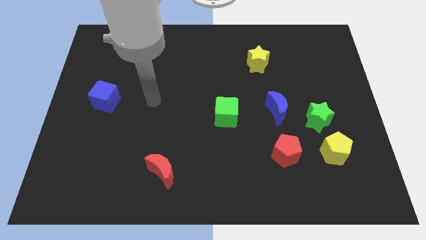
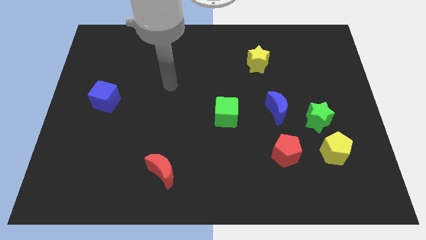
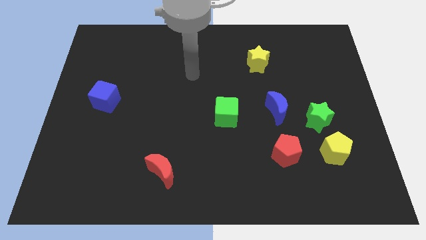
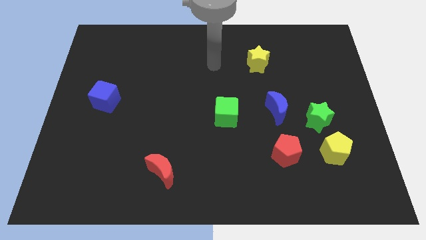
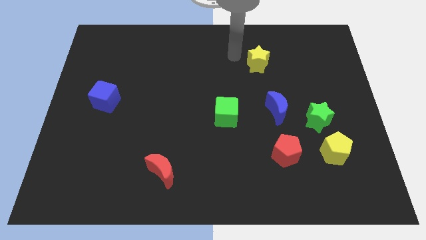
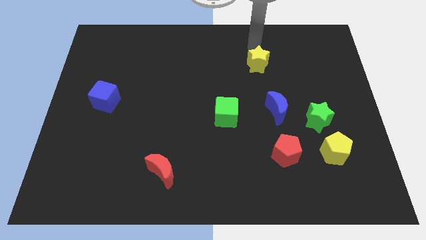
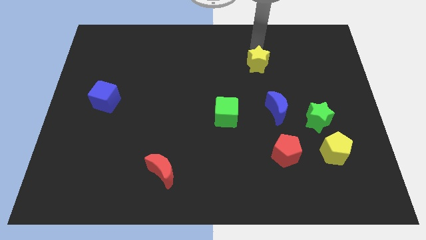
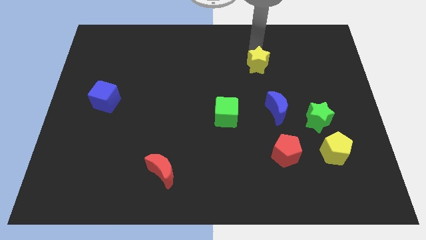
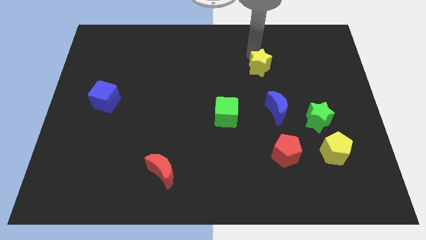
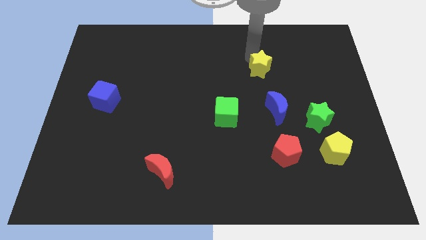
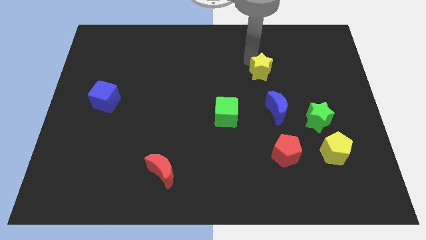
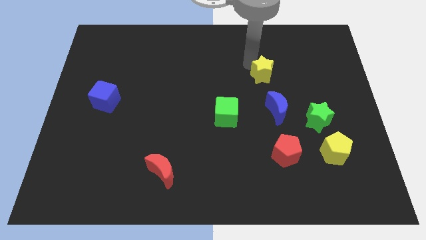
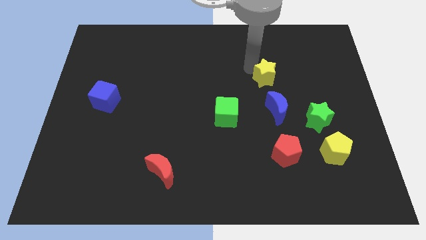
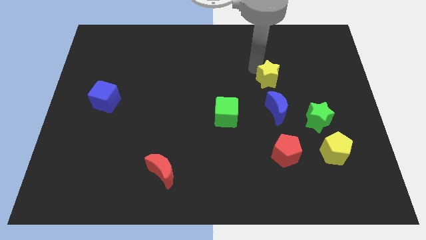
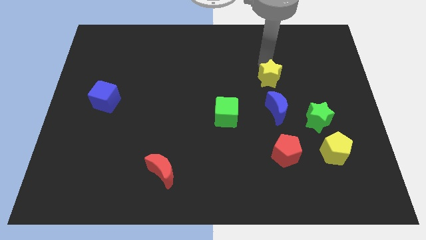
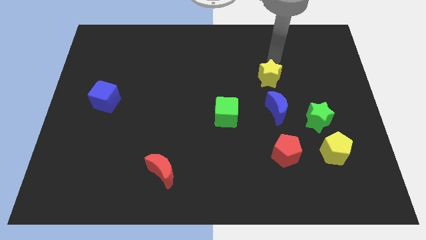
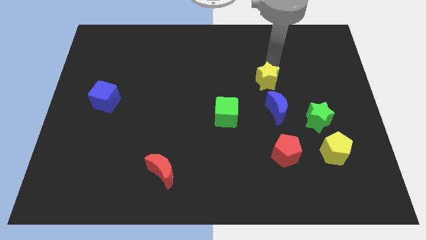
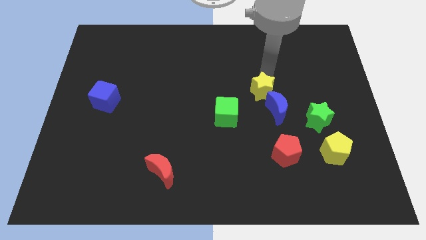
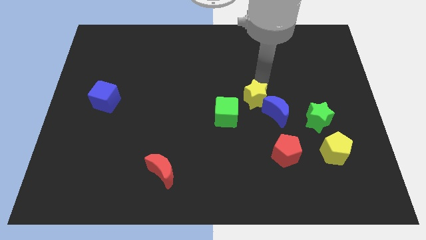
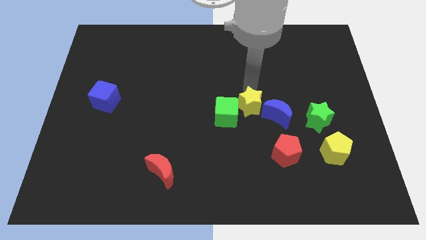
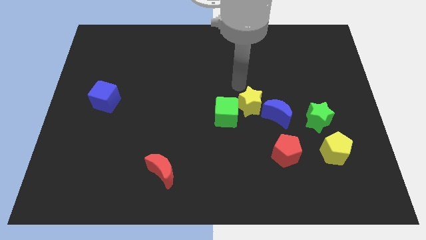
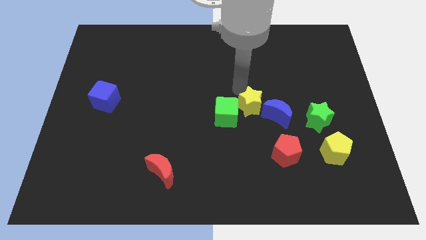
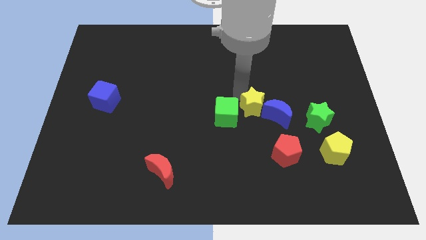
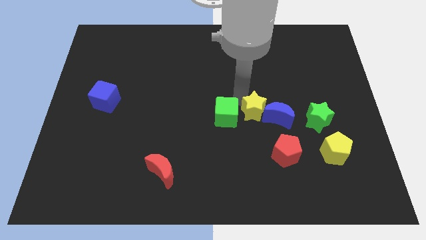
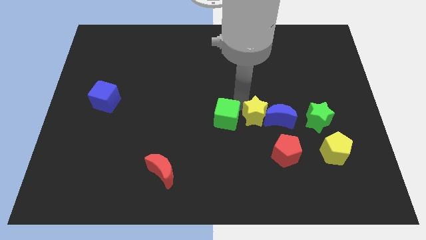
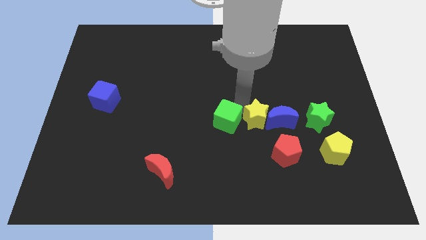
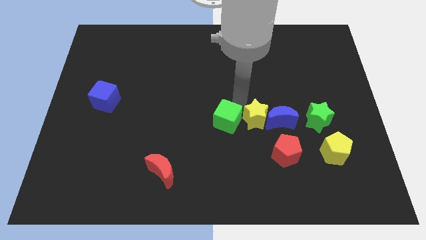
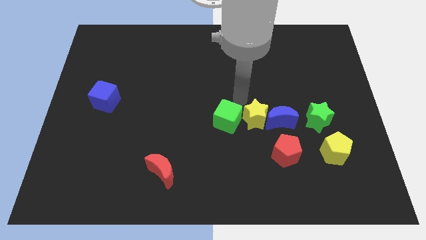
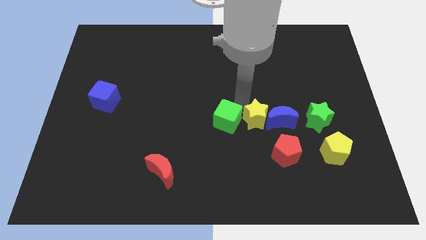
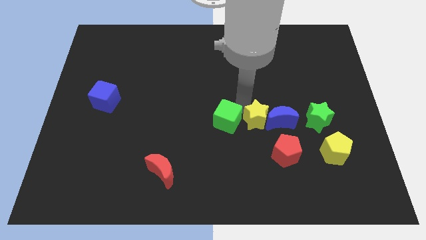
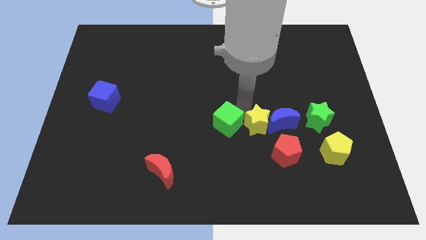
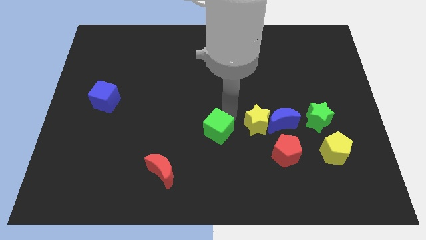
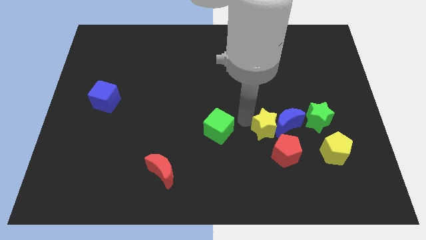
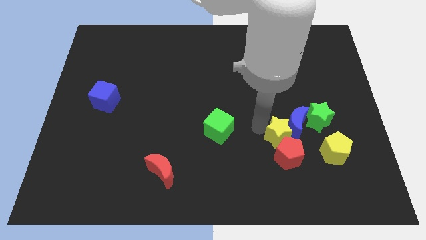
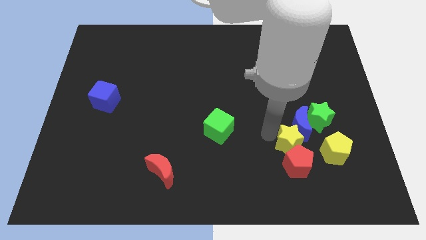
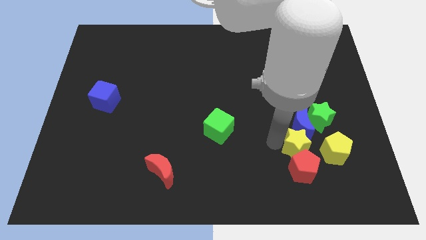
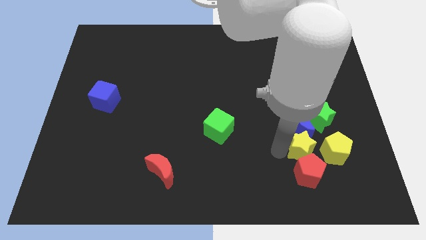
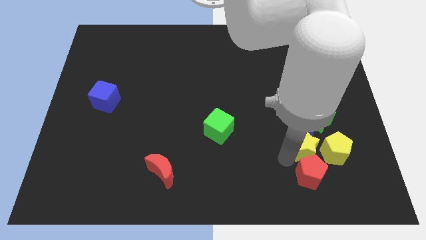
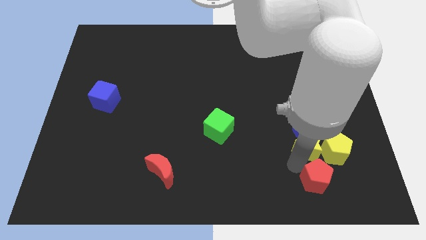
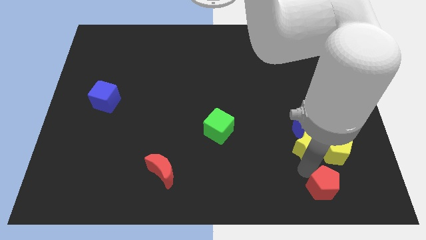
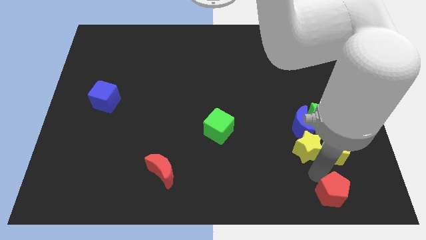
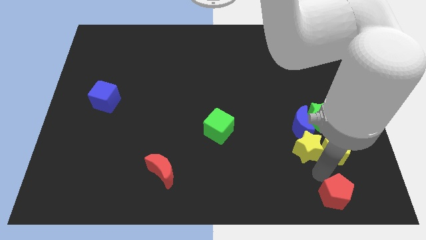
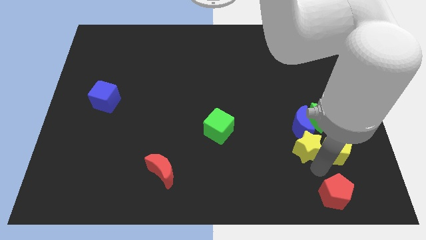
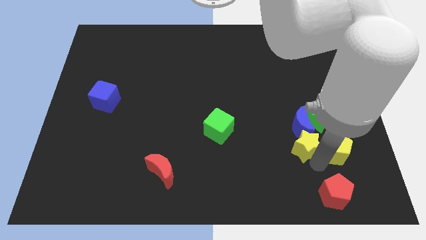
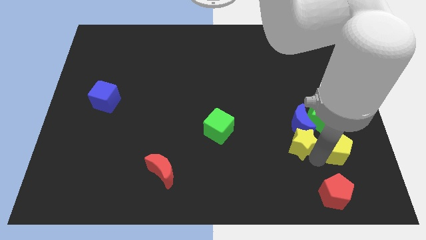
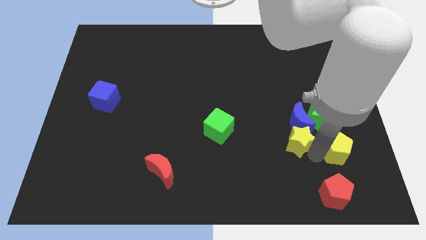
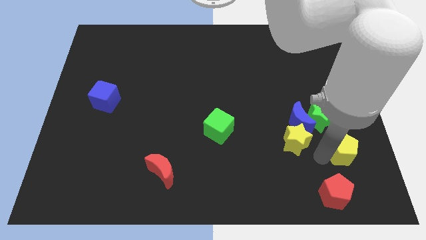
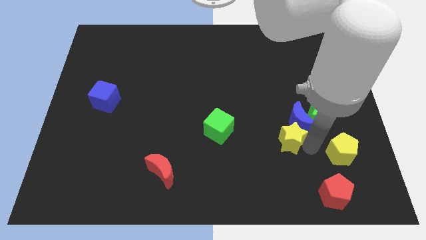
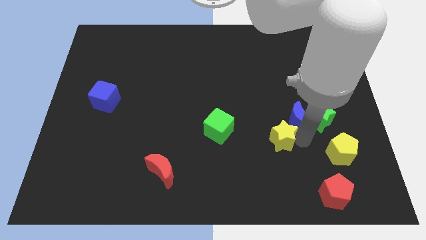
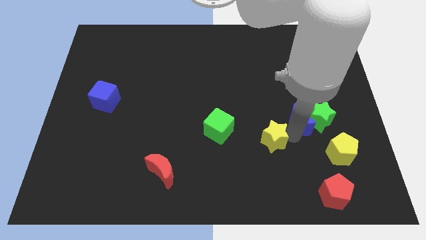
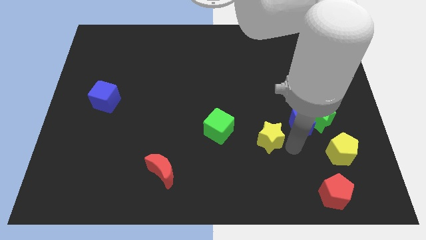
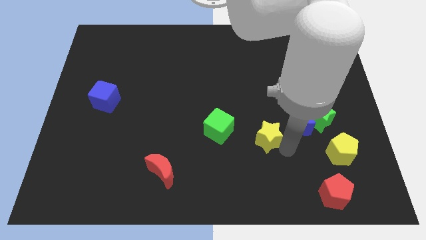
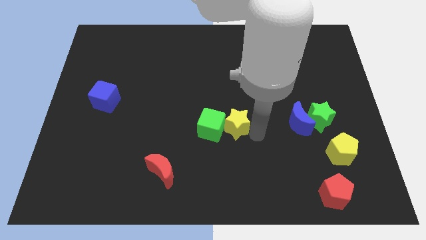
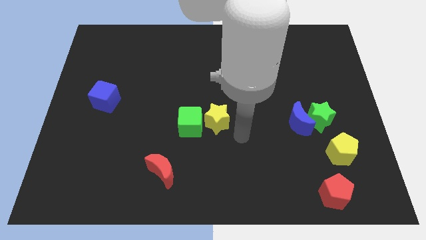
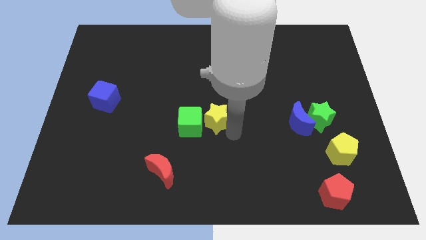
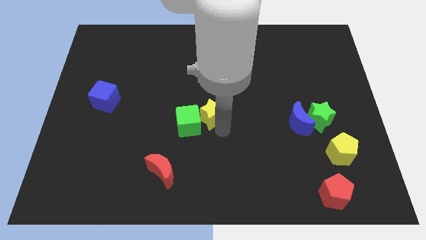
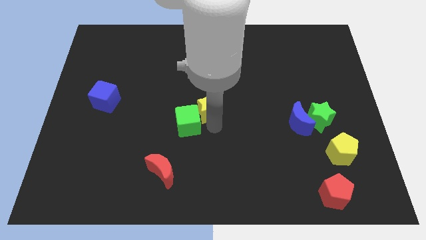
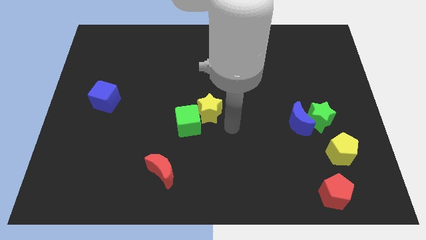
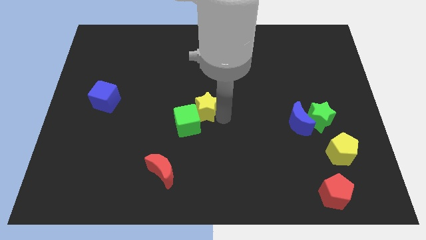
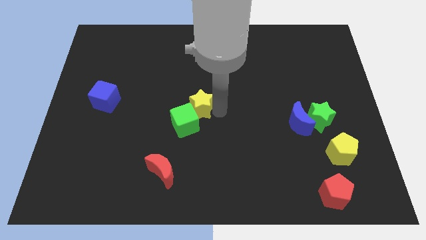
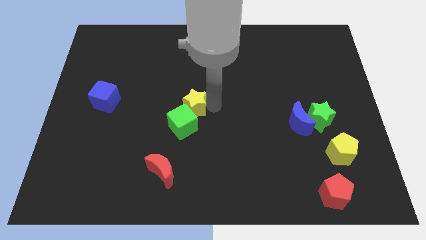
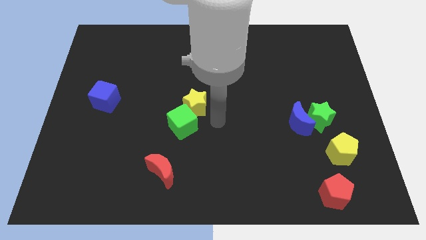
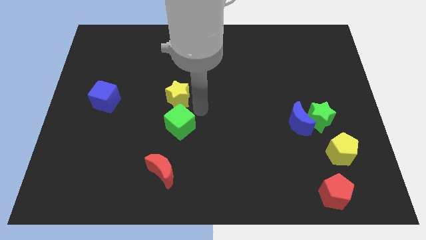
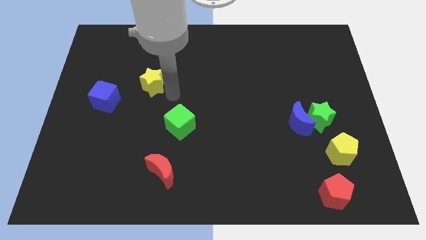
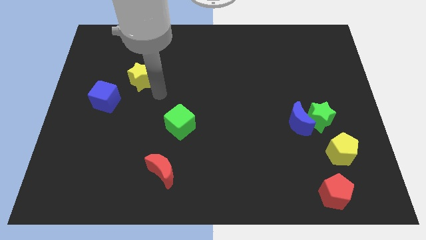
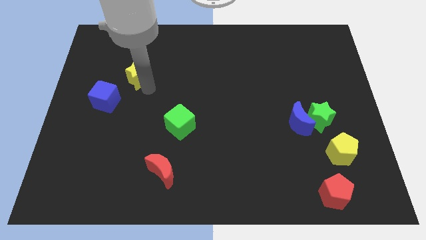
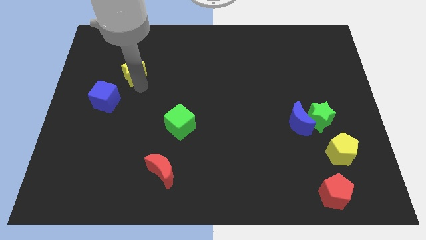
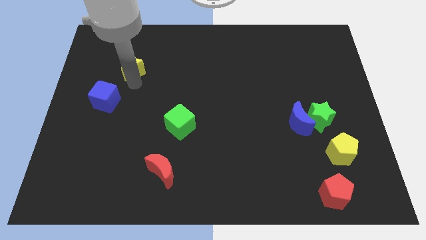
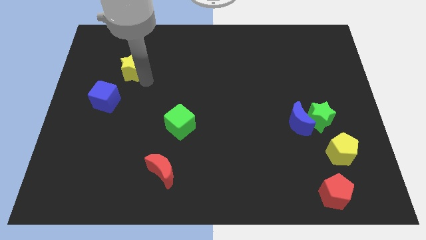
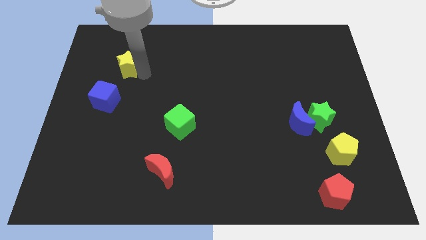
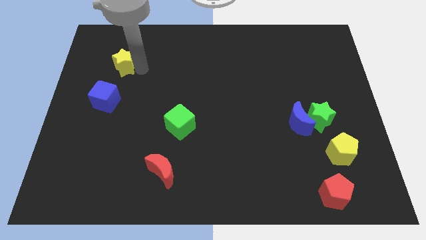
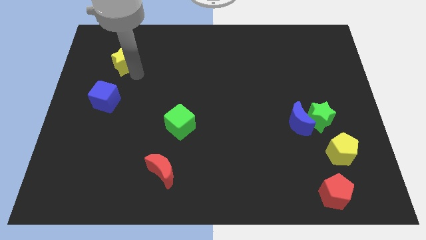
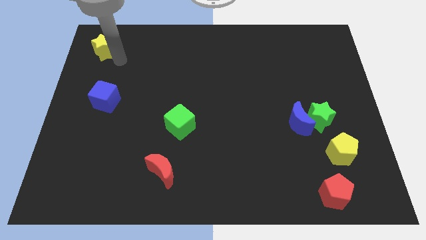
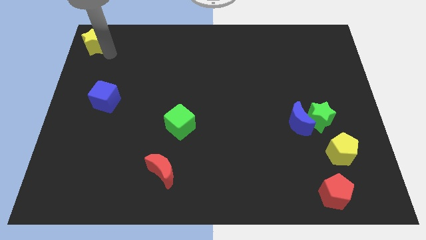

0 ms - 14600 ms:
put the yellow star to the top left
